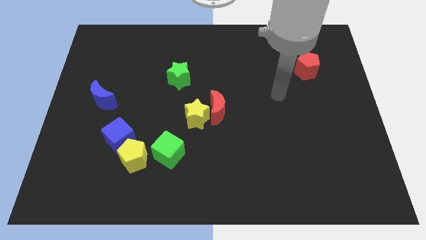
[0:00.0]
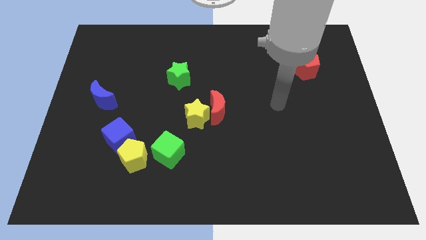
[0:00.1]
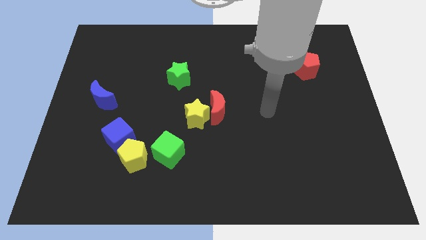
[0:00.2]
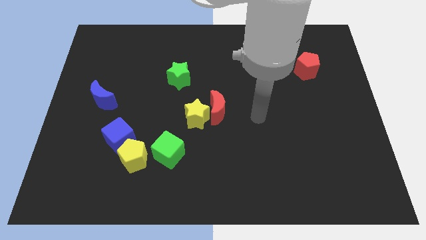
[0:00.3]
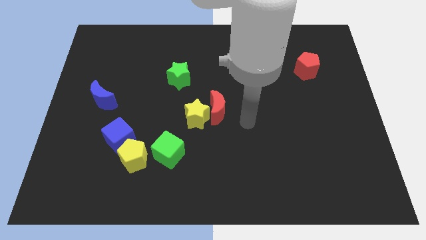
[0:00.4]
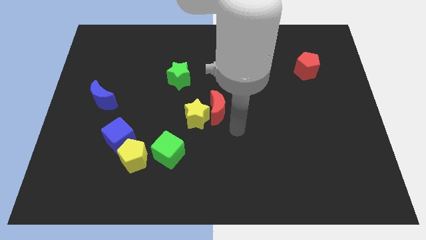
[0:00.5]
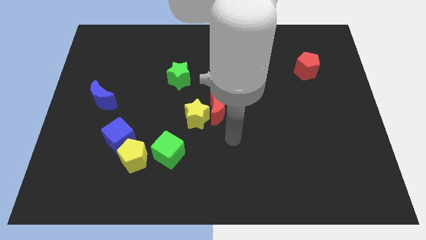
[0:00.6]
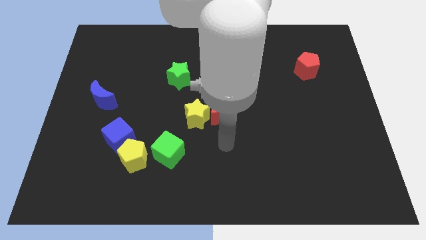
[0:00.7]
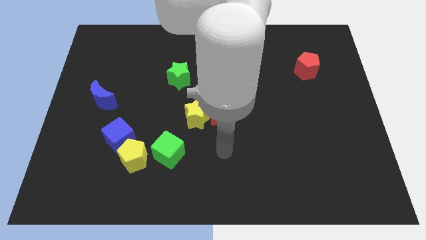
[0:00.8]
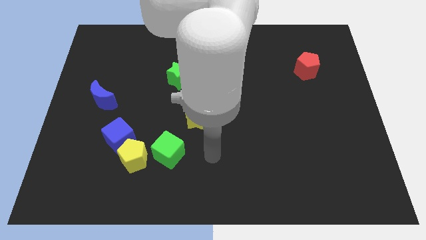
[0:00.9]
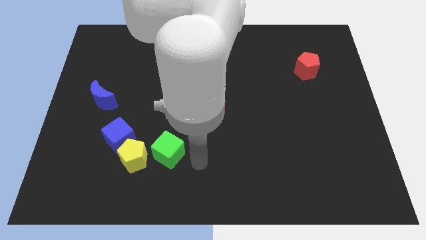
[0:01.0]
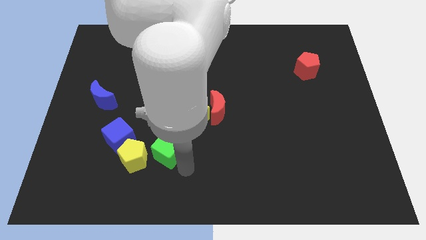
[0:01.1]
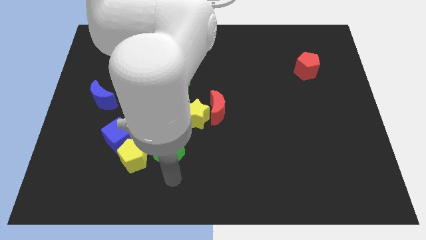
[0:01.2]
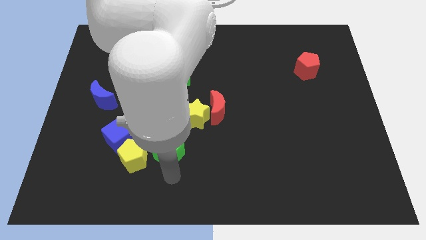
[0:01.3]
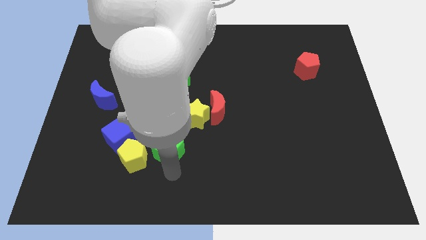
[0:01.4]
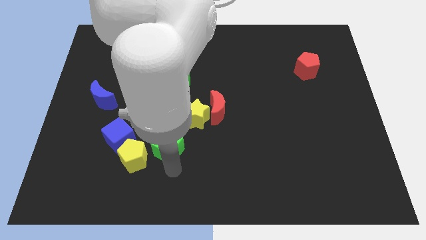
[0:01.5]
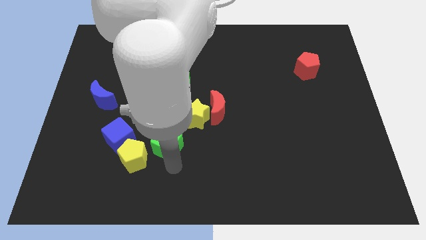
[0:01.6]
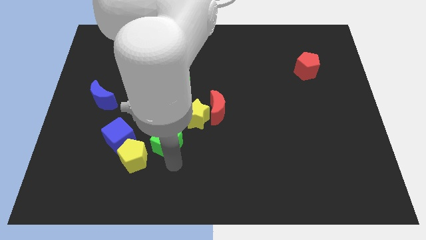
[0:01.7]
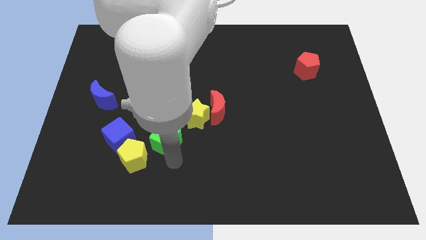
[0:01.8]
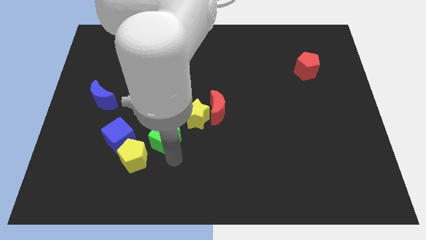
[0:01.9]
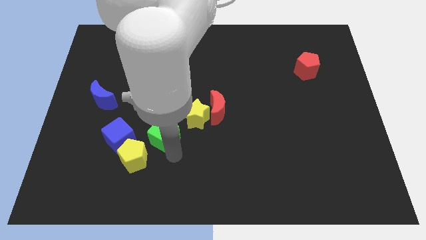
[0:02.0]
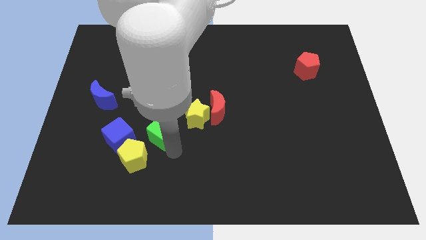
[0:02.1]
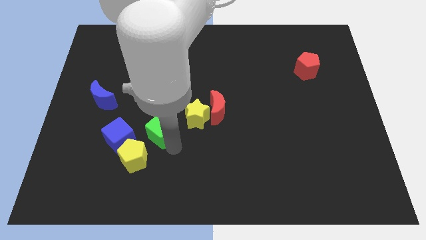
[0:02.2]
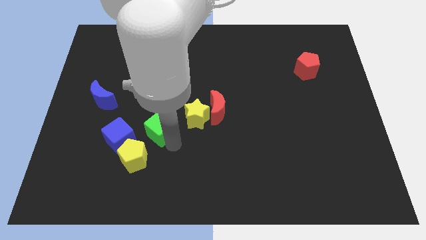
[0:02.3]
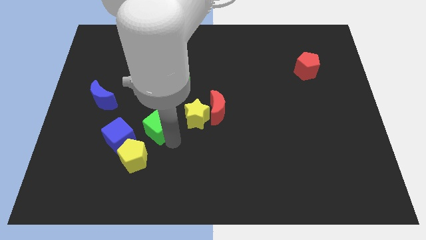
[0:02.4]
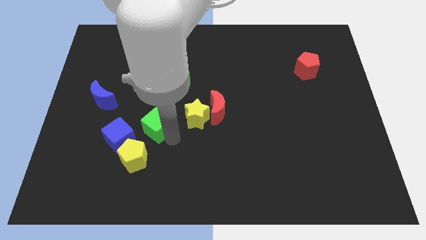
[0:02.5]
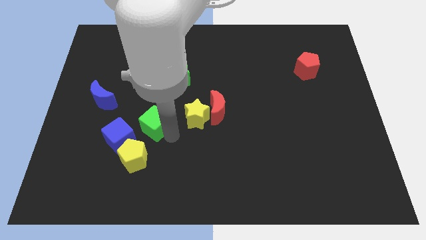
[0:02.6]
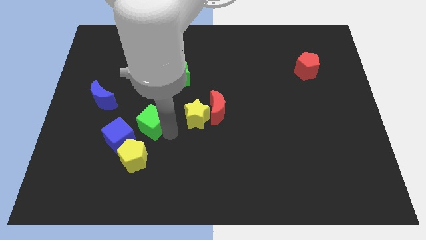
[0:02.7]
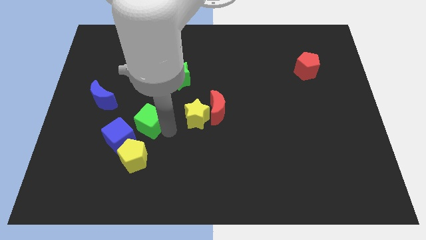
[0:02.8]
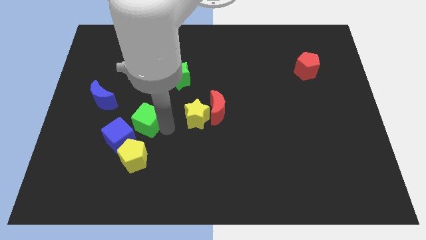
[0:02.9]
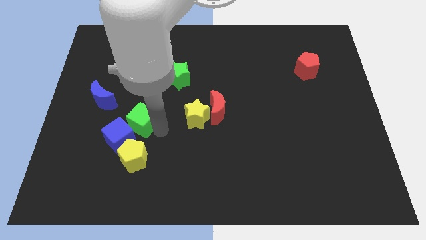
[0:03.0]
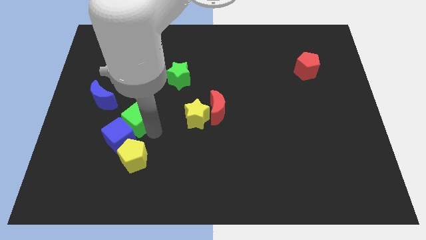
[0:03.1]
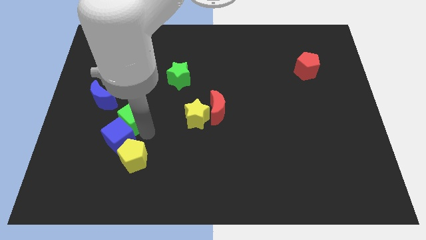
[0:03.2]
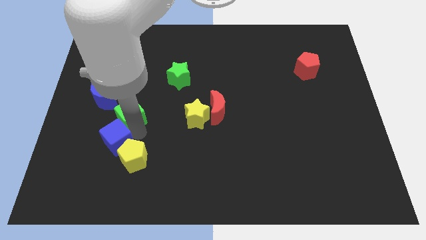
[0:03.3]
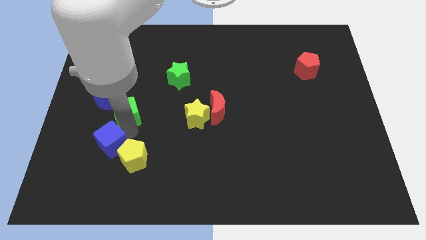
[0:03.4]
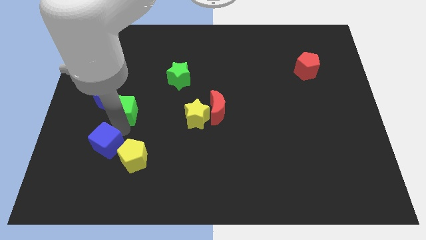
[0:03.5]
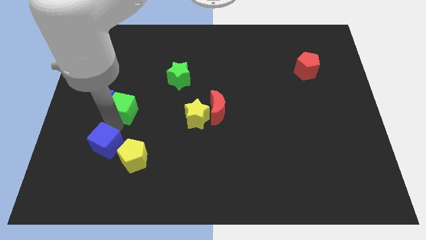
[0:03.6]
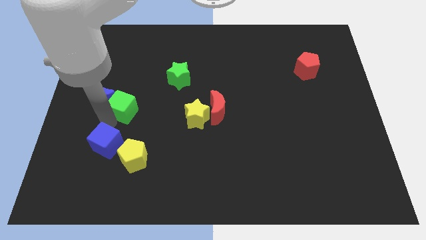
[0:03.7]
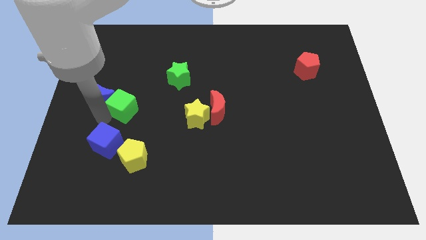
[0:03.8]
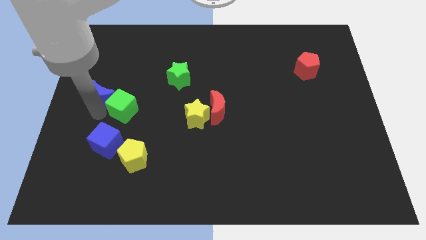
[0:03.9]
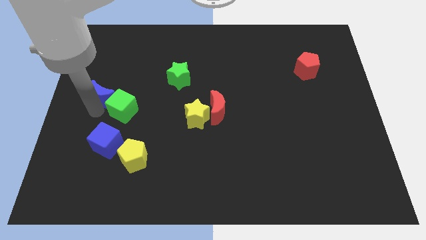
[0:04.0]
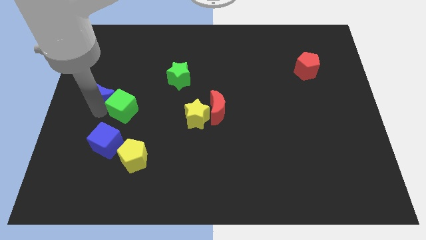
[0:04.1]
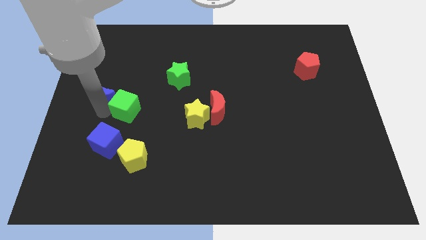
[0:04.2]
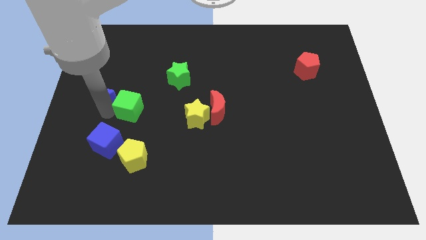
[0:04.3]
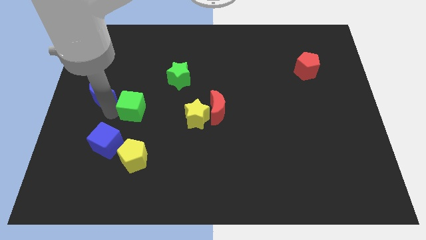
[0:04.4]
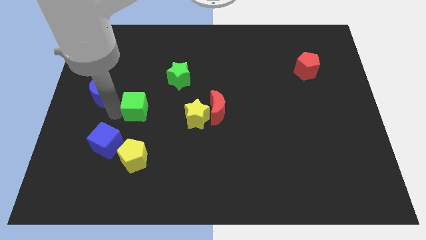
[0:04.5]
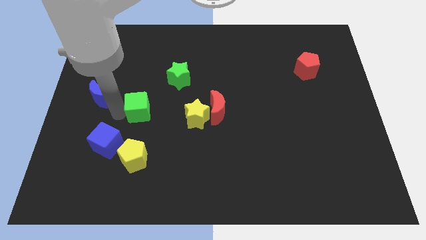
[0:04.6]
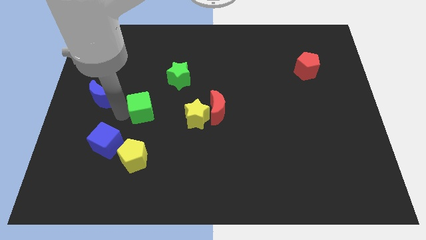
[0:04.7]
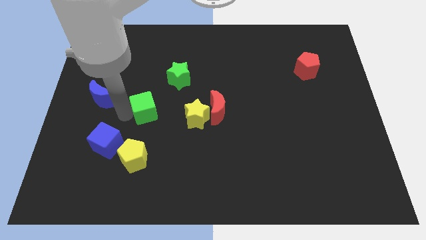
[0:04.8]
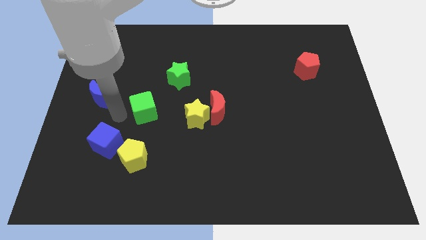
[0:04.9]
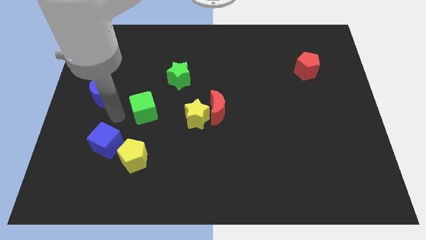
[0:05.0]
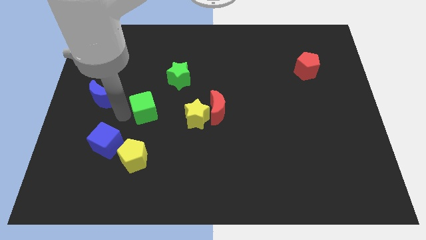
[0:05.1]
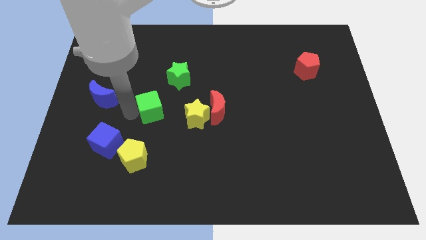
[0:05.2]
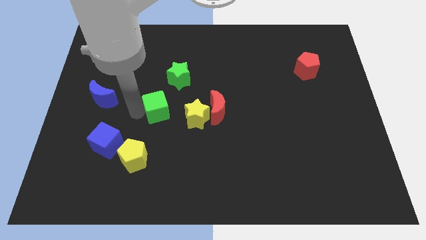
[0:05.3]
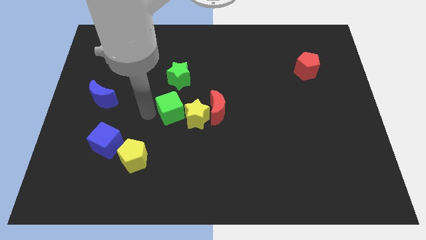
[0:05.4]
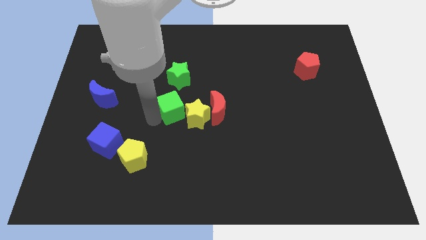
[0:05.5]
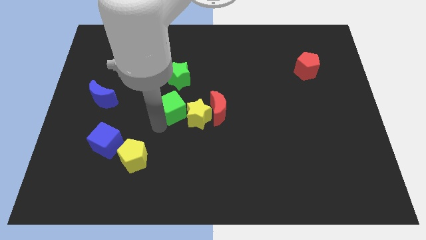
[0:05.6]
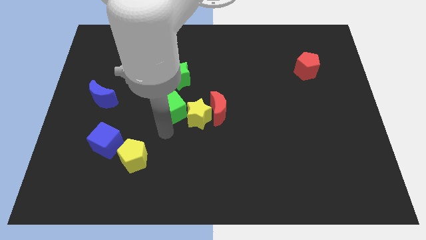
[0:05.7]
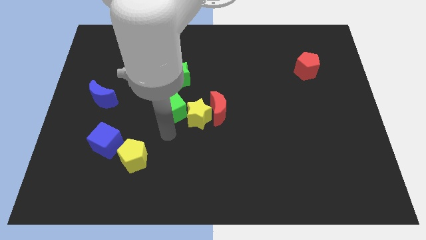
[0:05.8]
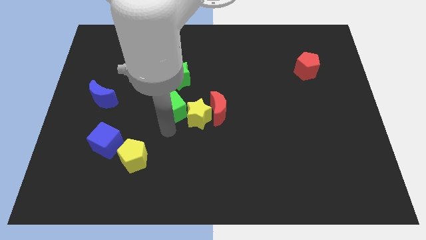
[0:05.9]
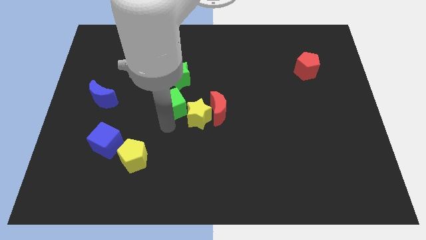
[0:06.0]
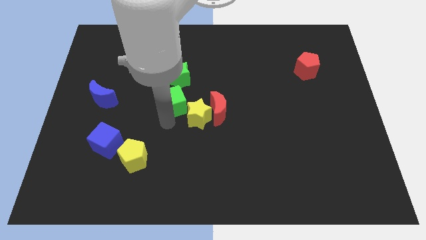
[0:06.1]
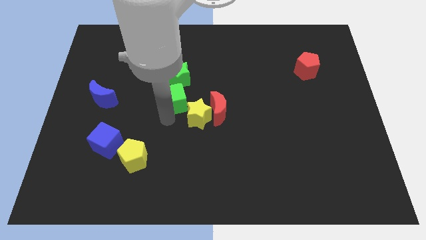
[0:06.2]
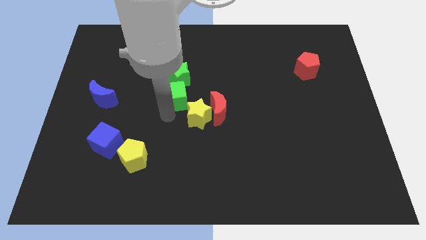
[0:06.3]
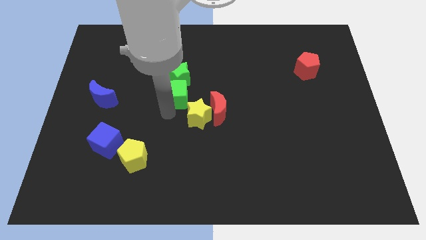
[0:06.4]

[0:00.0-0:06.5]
put the green cube next to the green star

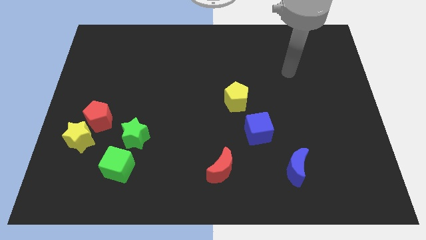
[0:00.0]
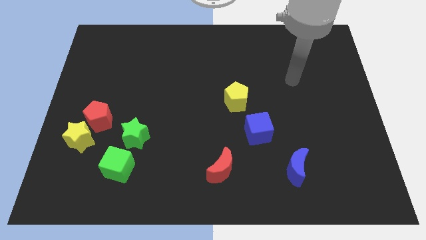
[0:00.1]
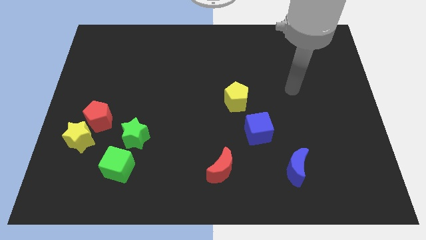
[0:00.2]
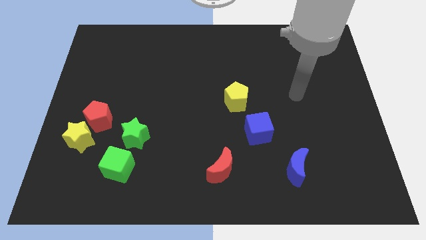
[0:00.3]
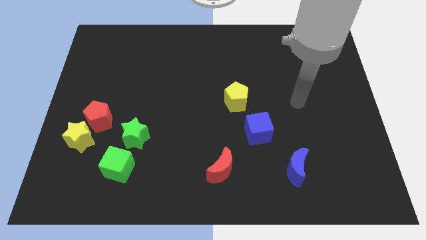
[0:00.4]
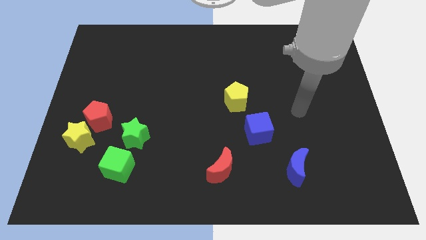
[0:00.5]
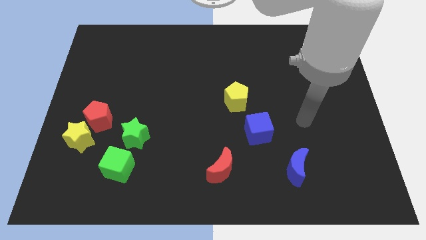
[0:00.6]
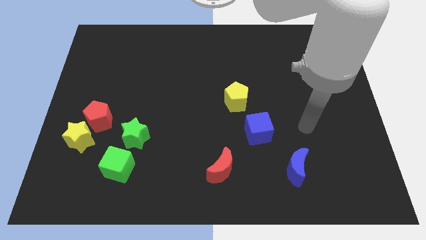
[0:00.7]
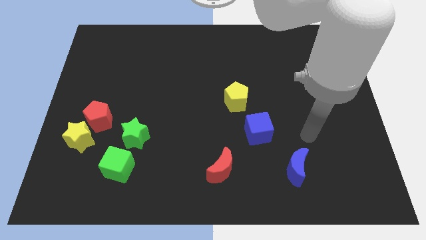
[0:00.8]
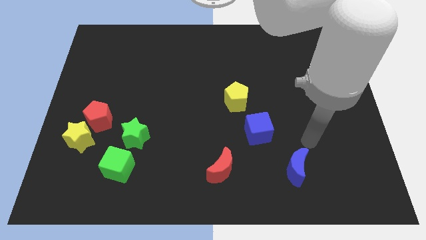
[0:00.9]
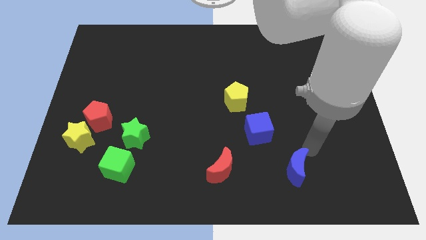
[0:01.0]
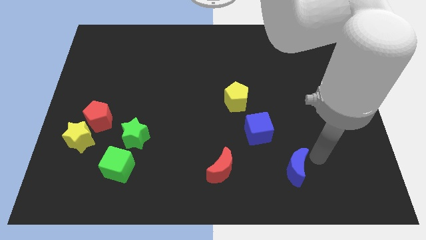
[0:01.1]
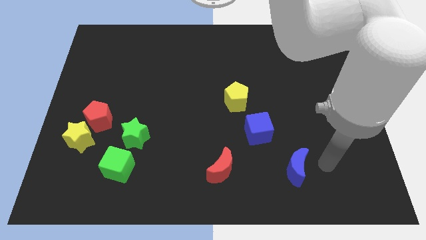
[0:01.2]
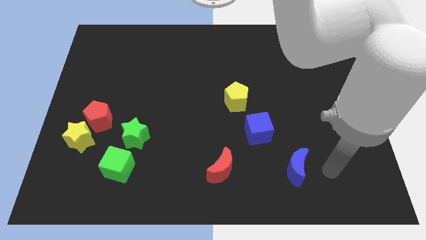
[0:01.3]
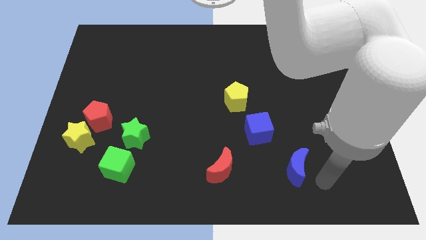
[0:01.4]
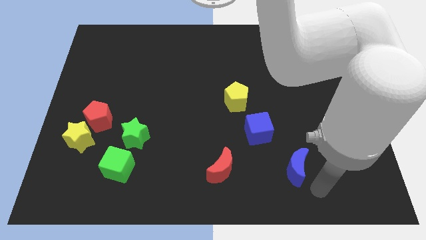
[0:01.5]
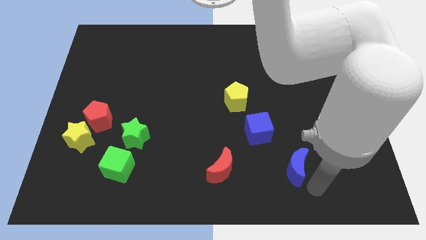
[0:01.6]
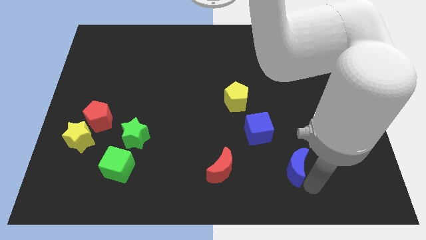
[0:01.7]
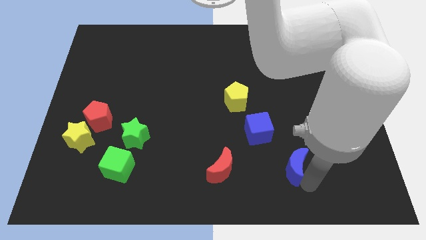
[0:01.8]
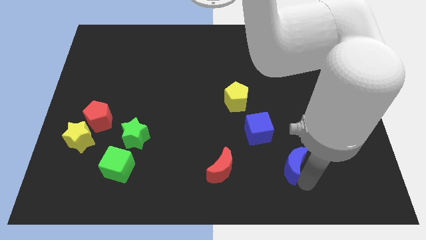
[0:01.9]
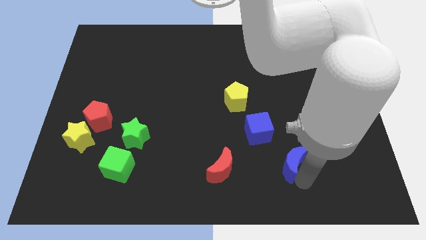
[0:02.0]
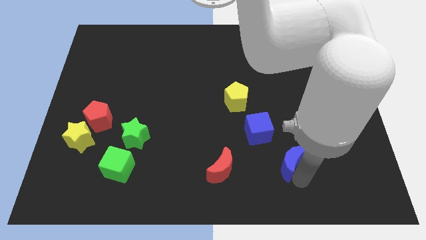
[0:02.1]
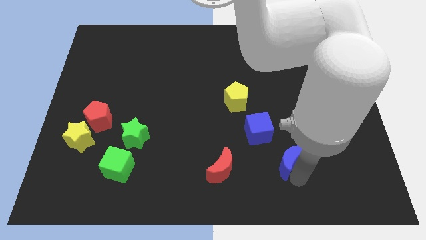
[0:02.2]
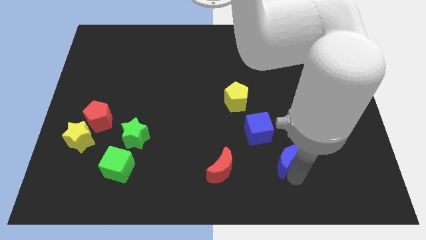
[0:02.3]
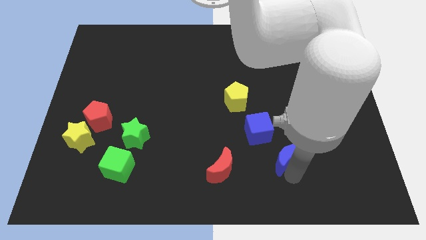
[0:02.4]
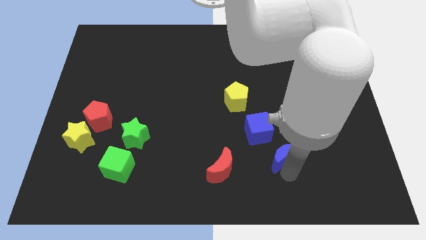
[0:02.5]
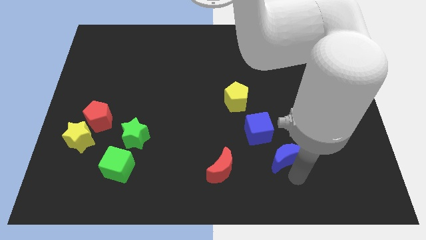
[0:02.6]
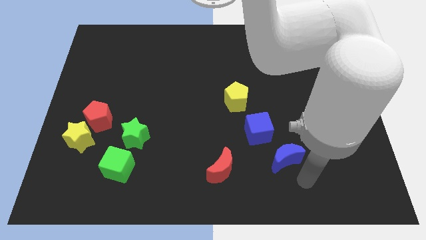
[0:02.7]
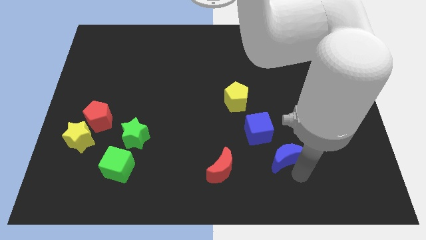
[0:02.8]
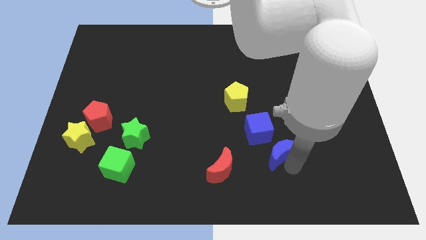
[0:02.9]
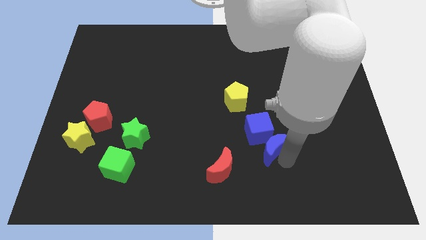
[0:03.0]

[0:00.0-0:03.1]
push the blue moon towards the blue cube
